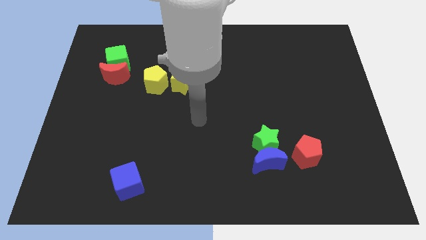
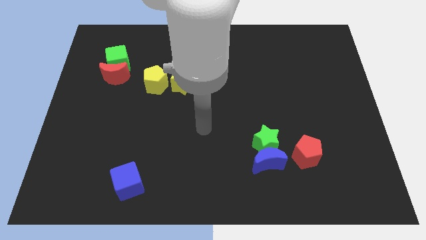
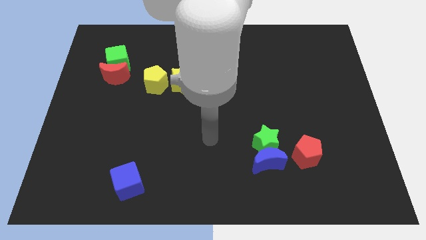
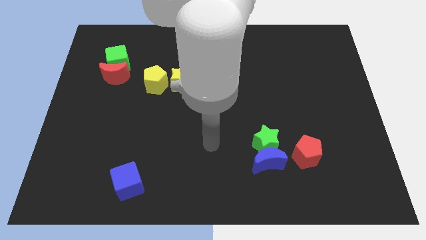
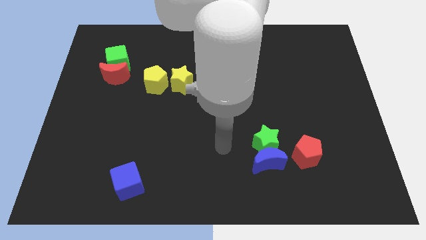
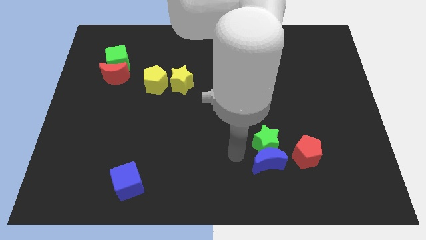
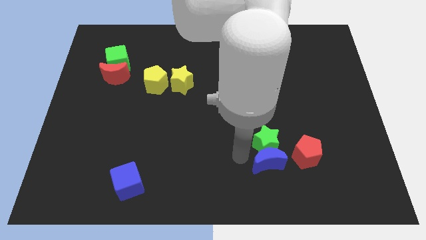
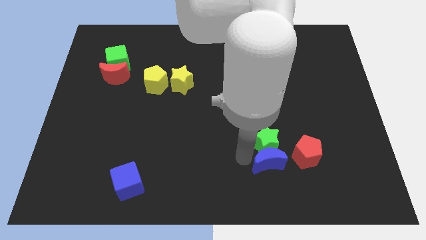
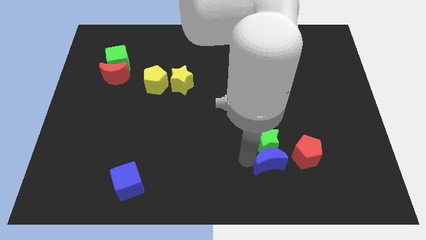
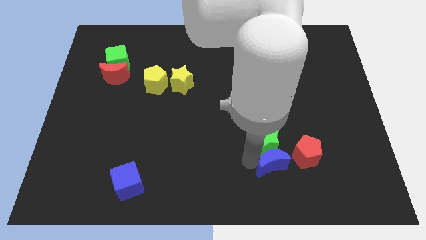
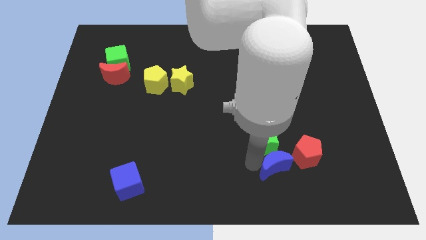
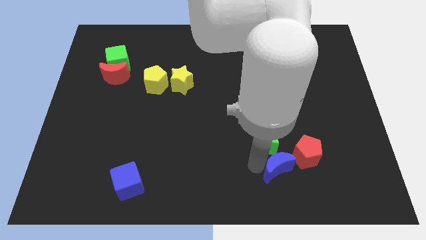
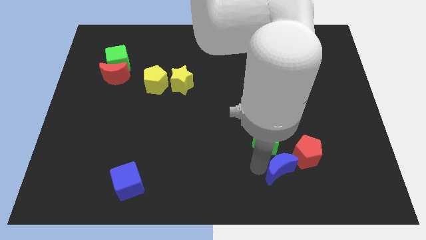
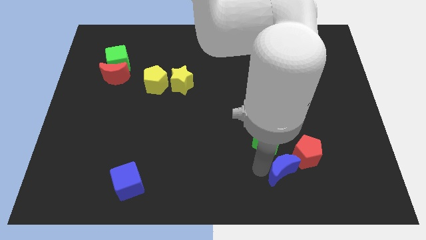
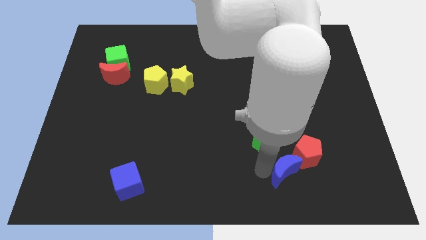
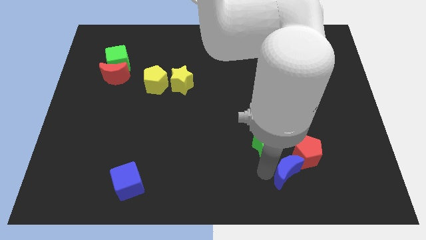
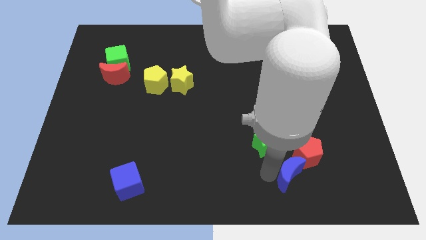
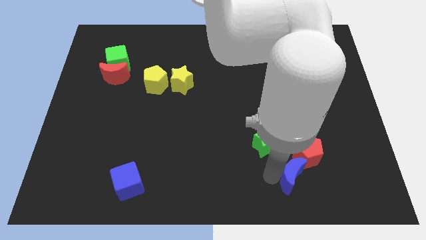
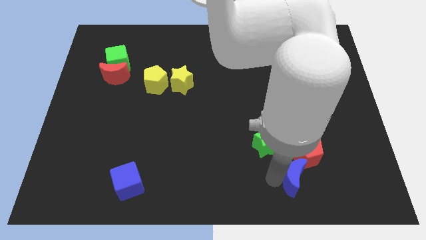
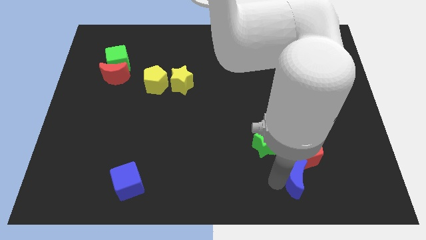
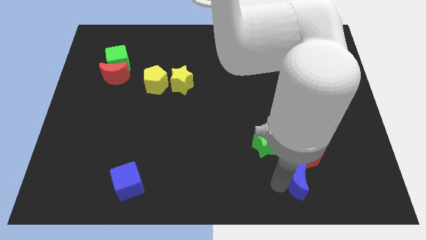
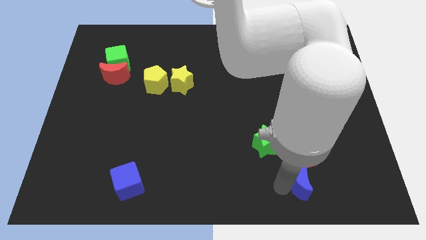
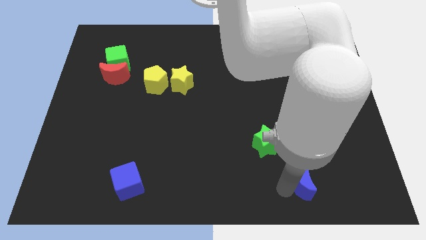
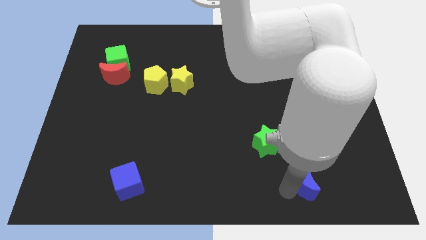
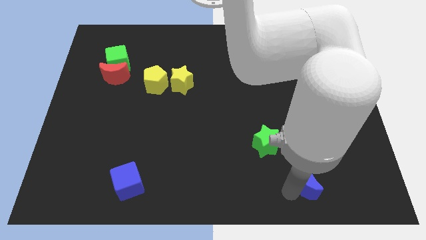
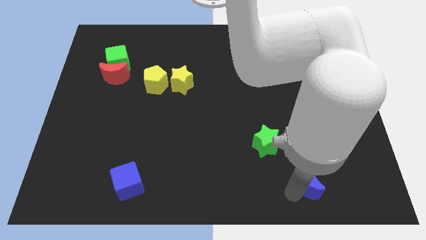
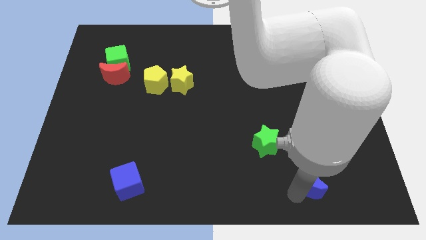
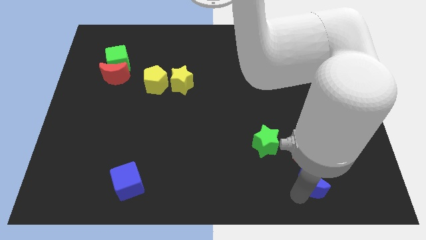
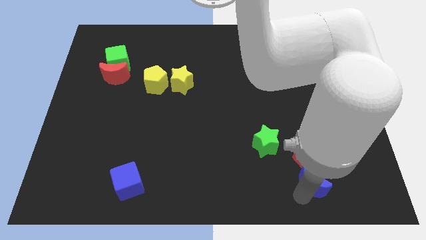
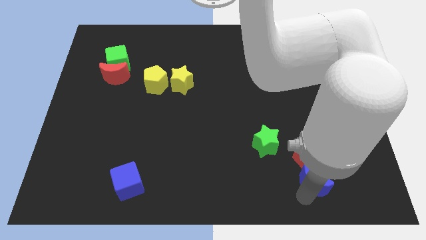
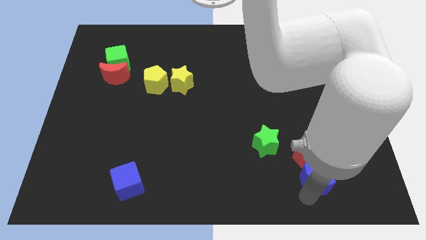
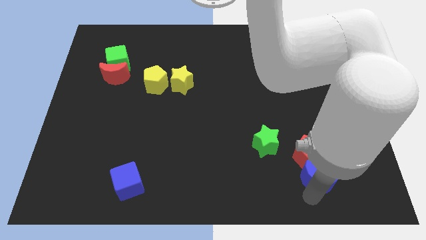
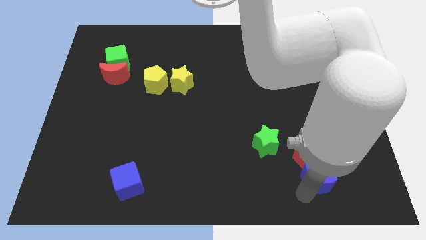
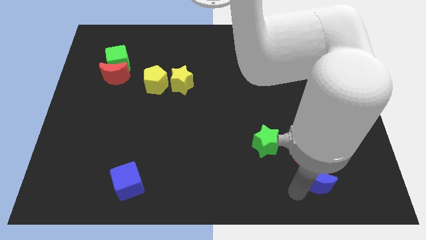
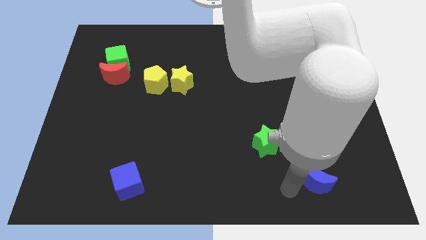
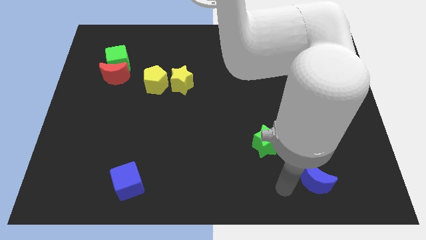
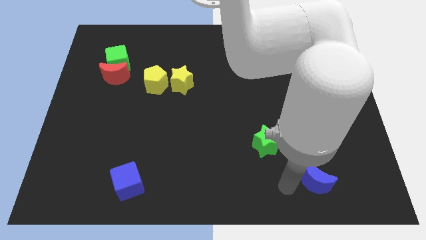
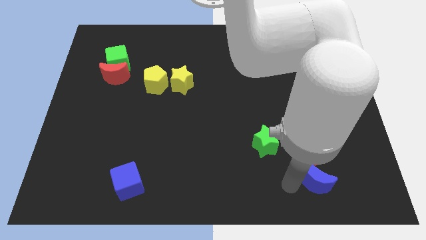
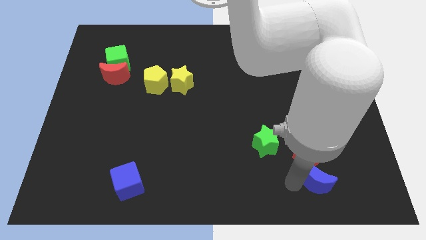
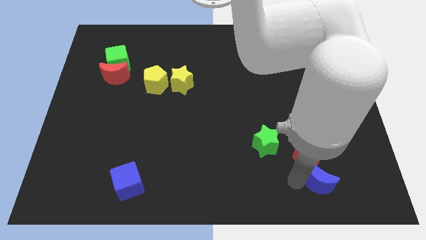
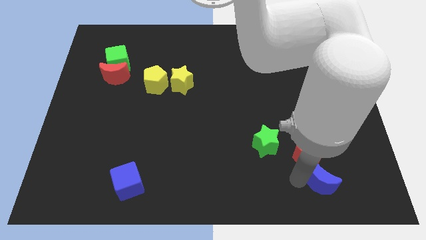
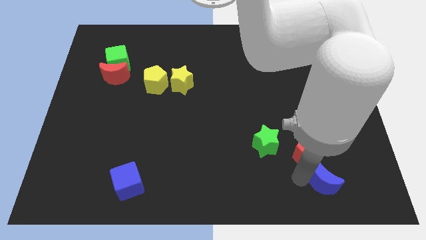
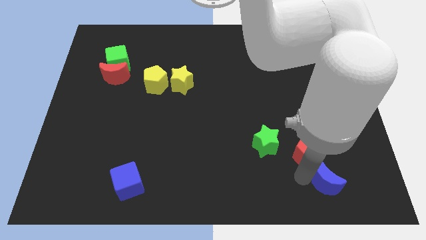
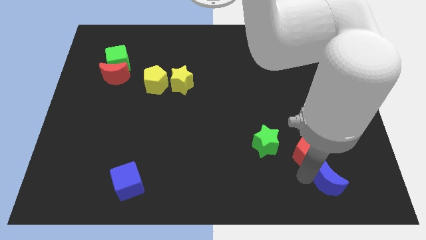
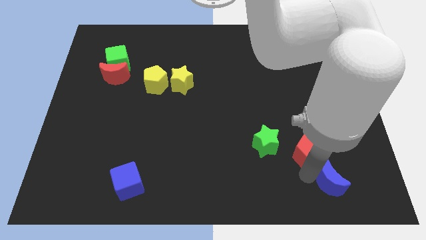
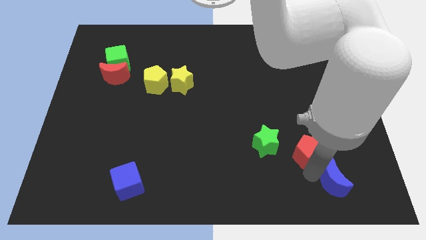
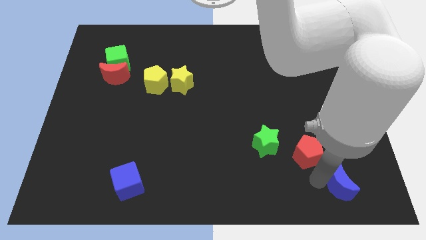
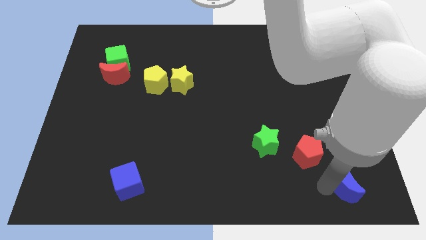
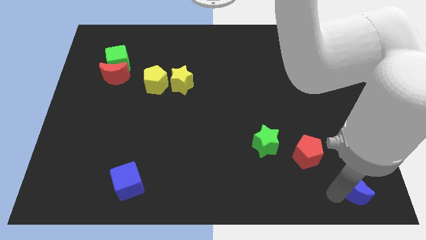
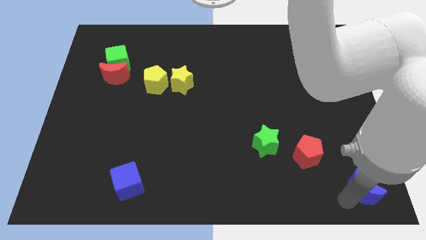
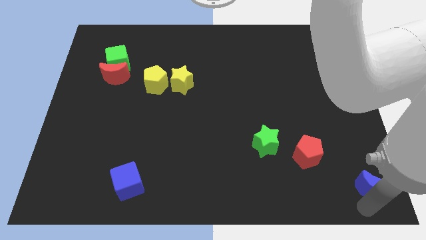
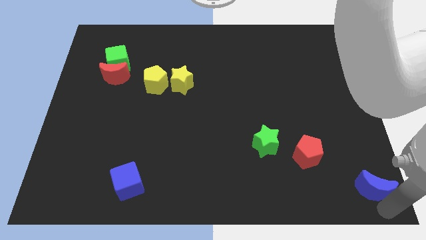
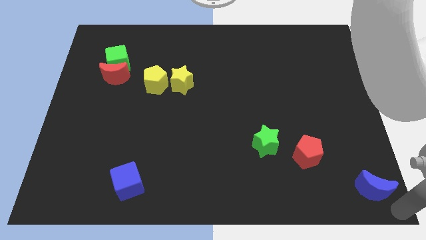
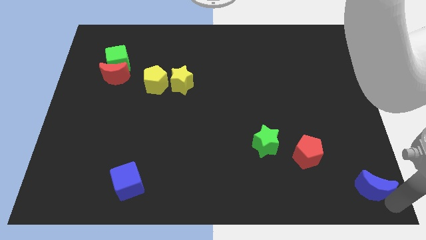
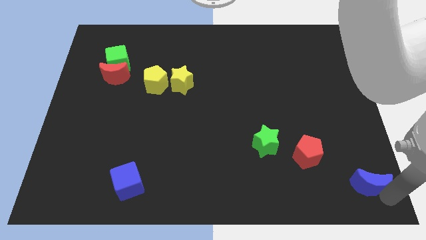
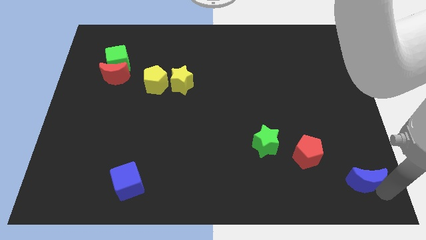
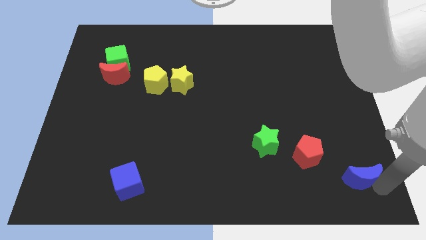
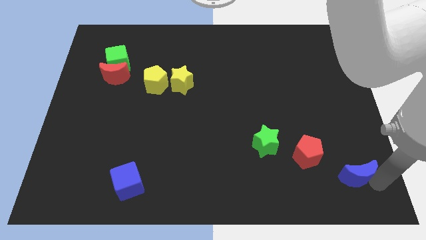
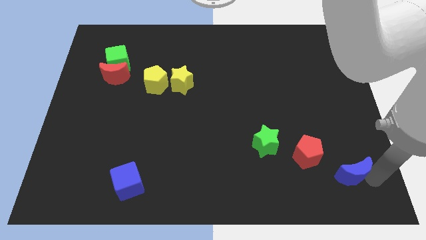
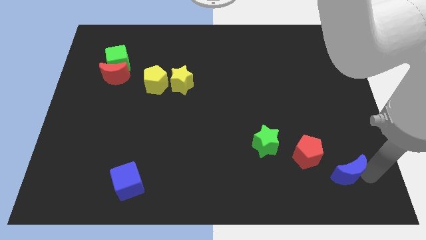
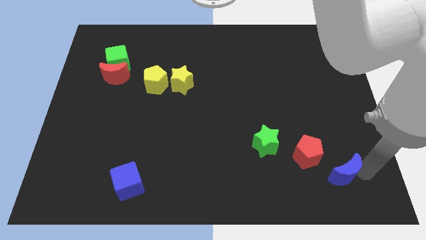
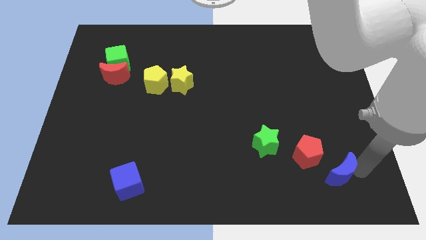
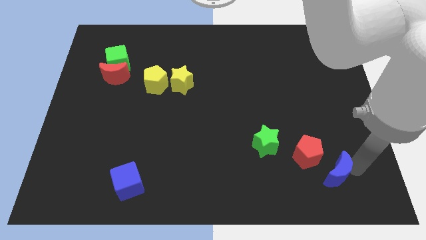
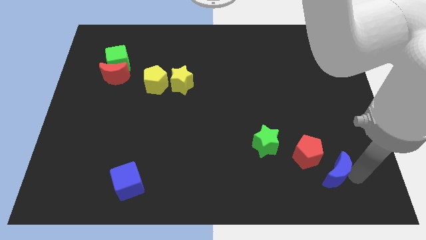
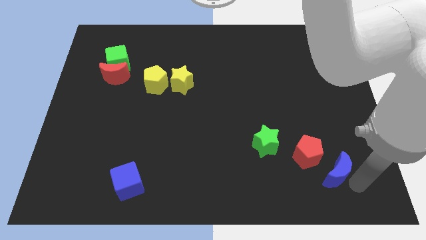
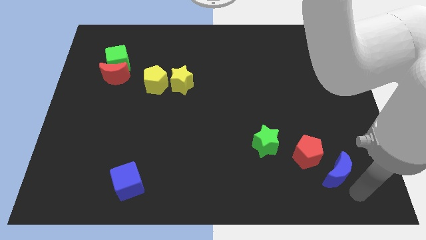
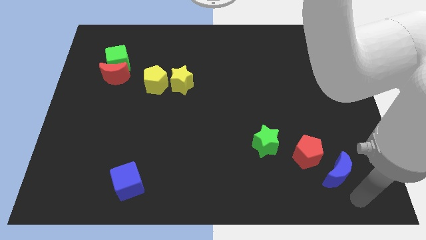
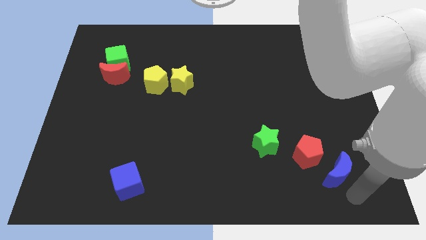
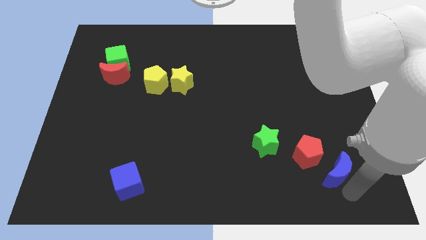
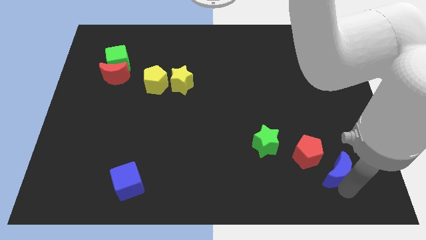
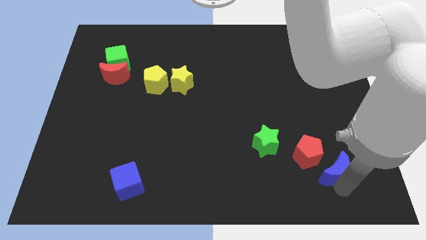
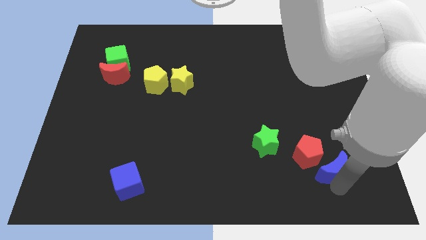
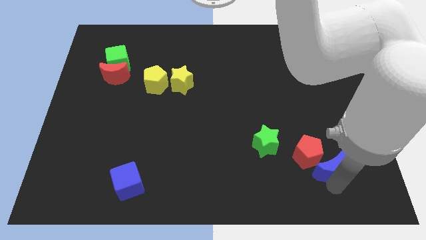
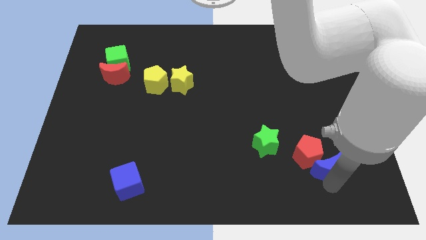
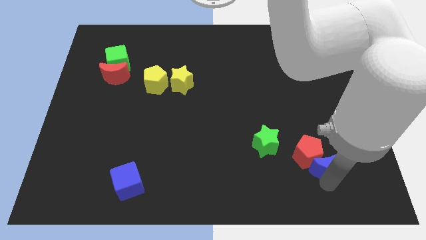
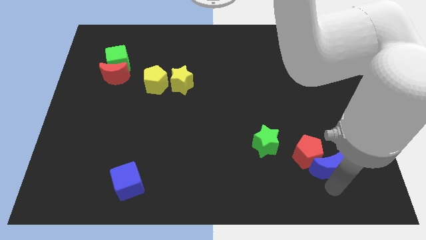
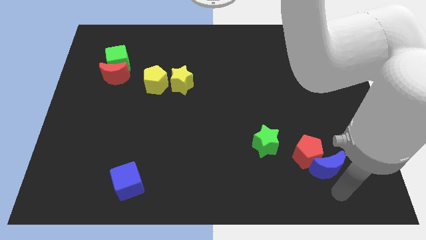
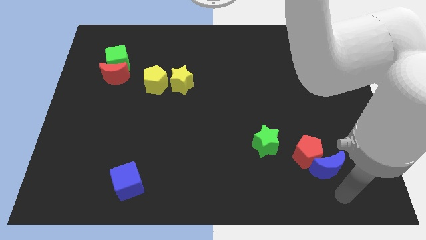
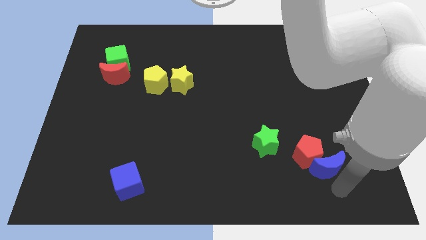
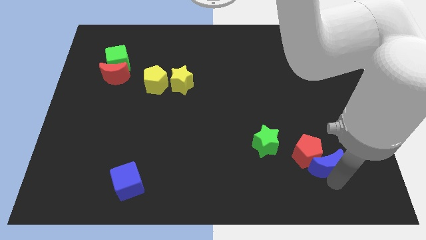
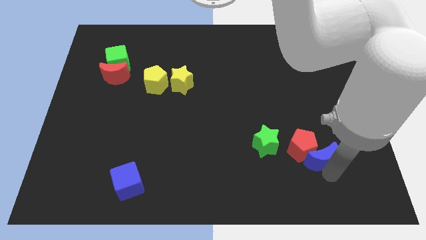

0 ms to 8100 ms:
slide the blue moon to the right of the green star
